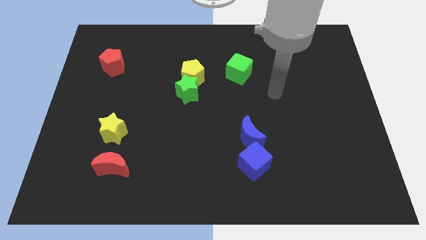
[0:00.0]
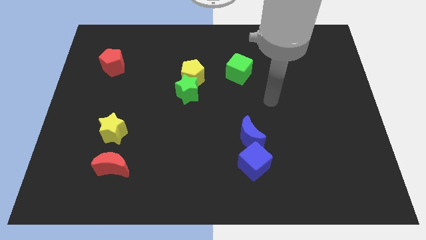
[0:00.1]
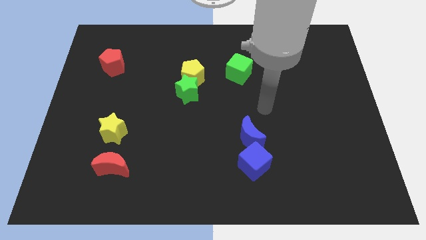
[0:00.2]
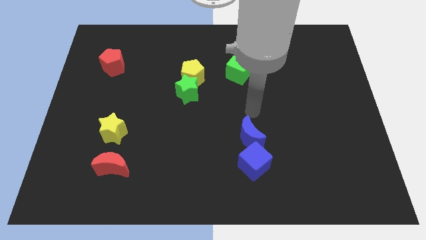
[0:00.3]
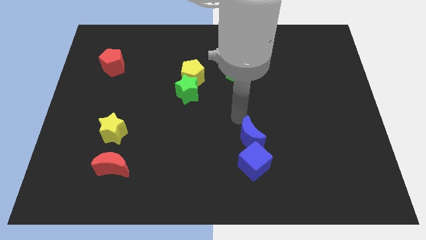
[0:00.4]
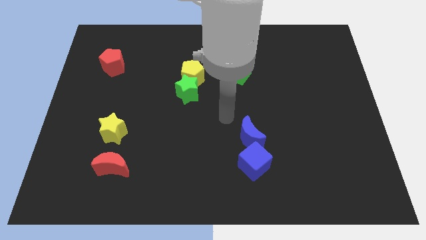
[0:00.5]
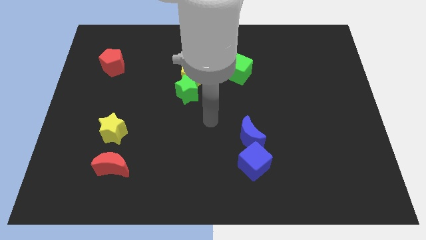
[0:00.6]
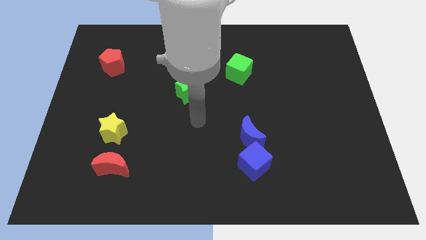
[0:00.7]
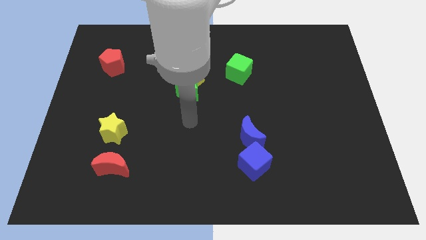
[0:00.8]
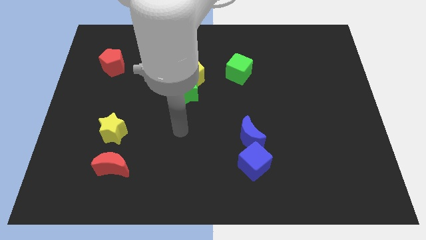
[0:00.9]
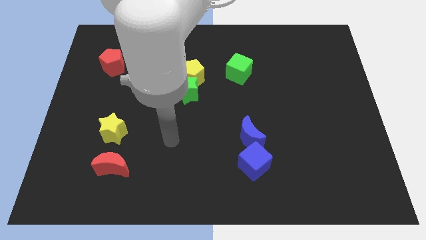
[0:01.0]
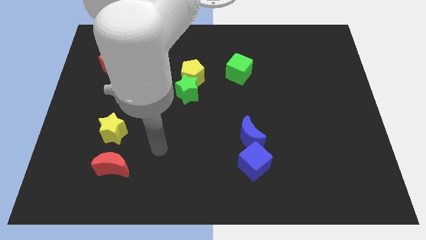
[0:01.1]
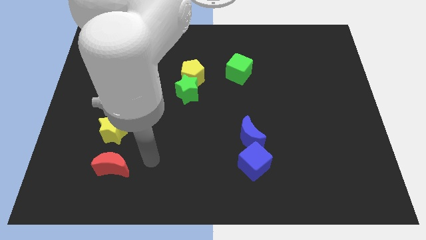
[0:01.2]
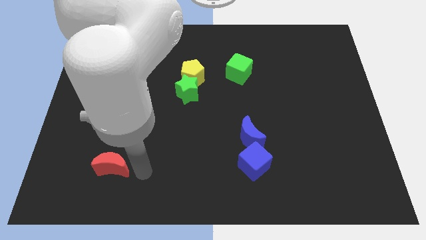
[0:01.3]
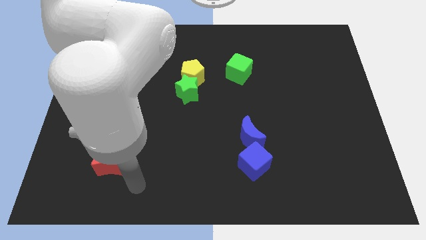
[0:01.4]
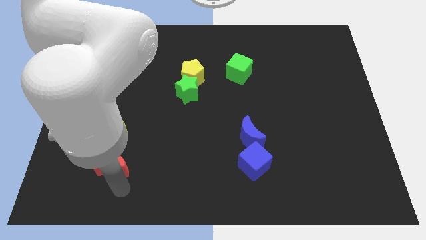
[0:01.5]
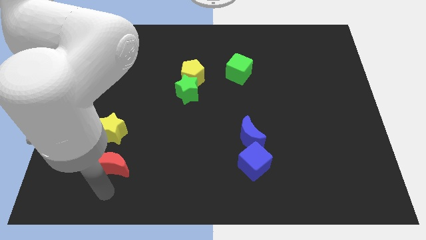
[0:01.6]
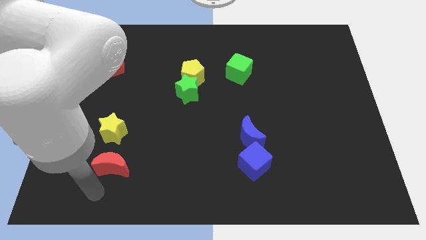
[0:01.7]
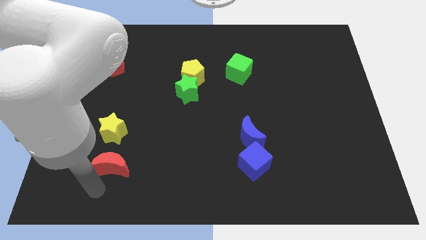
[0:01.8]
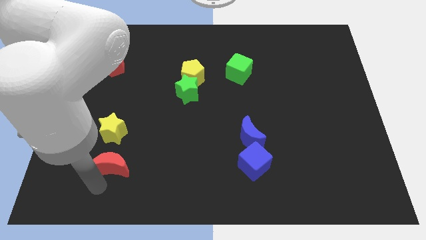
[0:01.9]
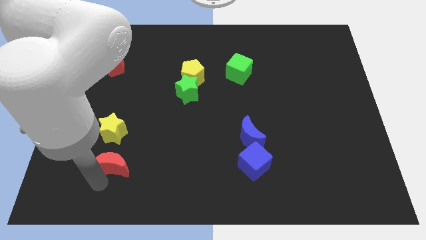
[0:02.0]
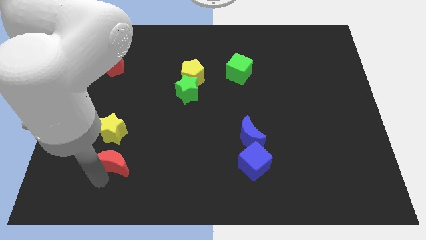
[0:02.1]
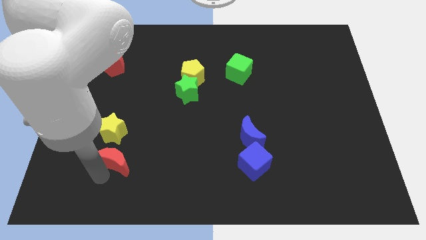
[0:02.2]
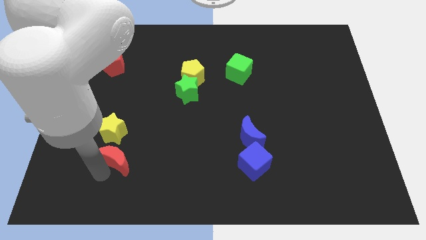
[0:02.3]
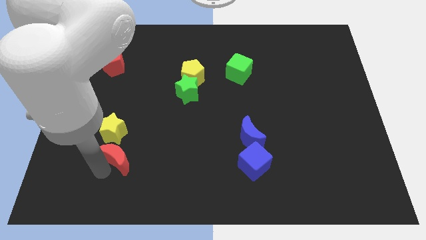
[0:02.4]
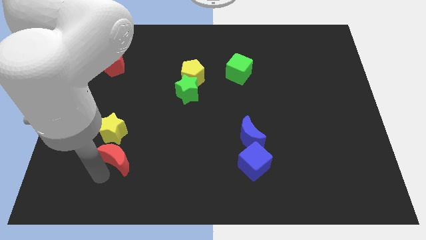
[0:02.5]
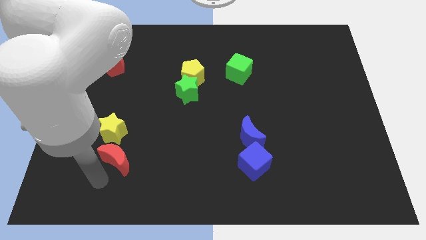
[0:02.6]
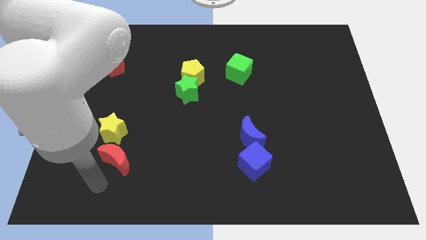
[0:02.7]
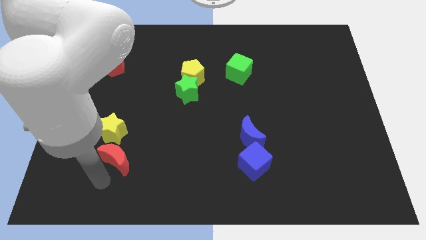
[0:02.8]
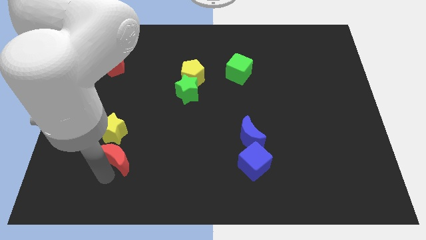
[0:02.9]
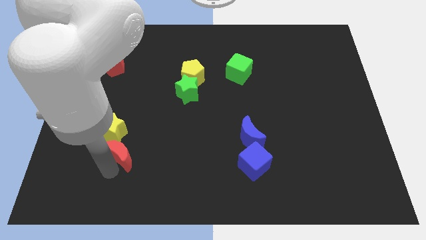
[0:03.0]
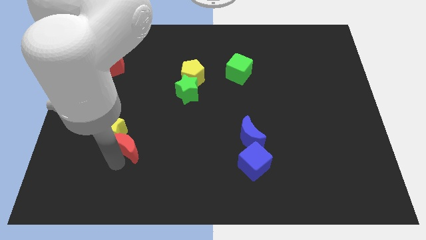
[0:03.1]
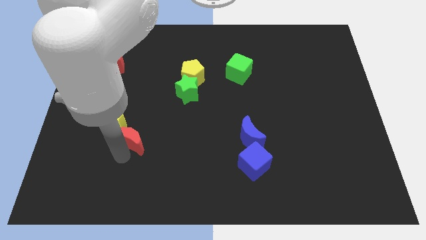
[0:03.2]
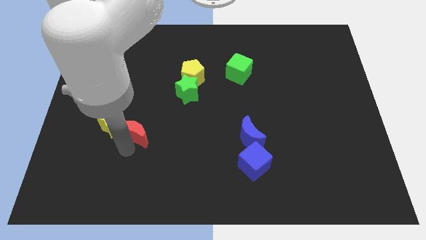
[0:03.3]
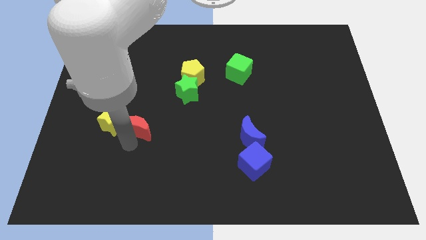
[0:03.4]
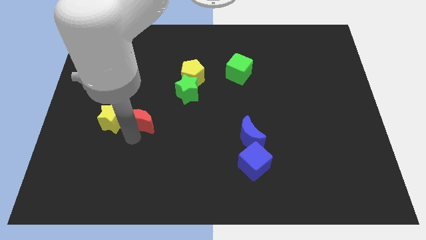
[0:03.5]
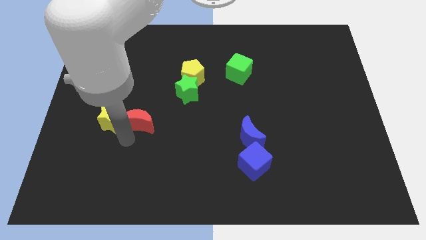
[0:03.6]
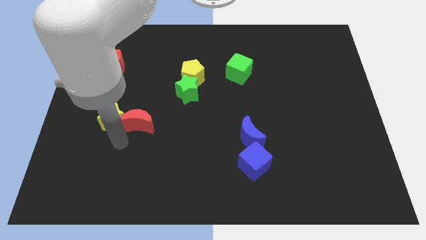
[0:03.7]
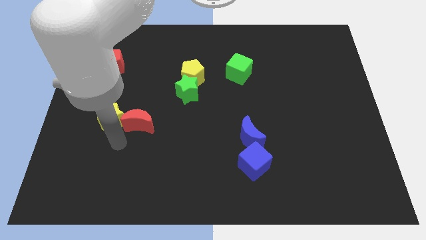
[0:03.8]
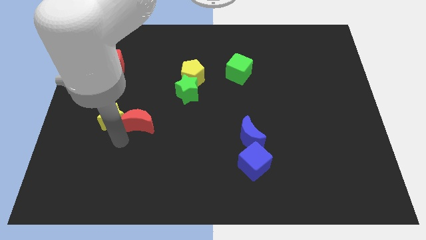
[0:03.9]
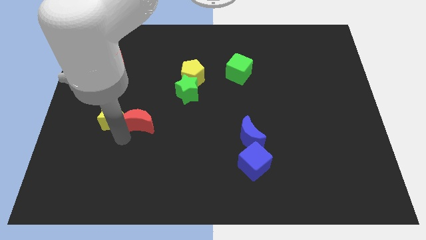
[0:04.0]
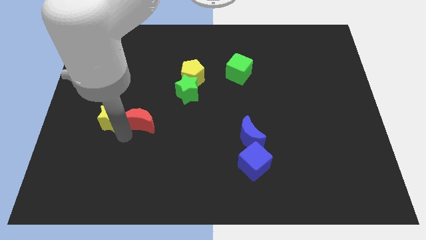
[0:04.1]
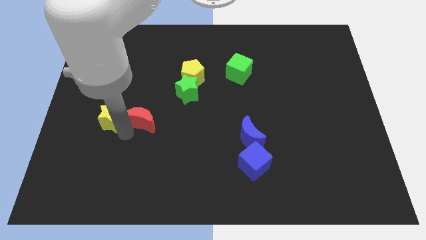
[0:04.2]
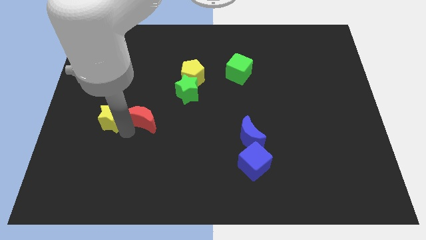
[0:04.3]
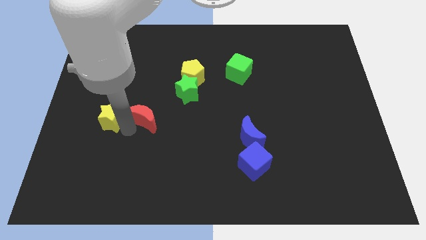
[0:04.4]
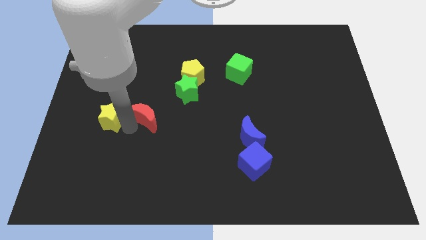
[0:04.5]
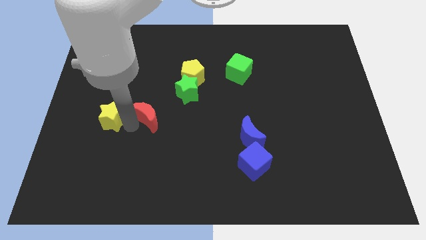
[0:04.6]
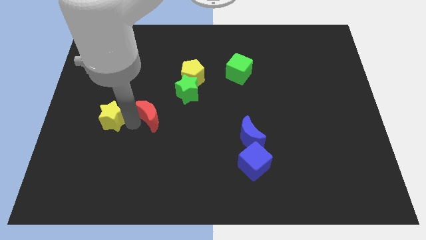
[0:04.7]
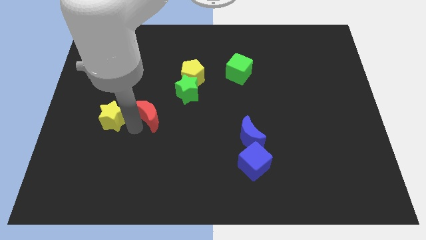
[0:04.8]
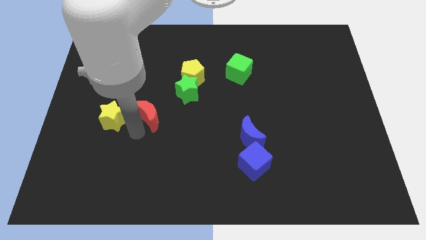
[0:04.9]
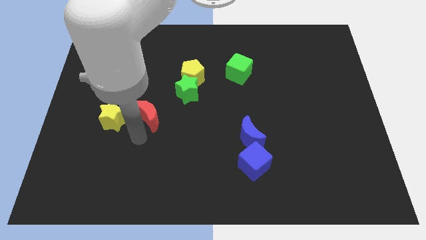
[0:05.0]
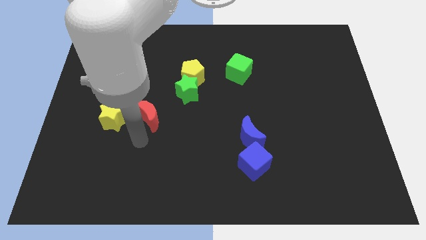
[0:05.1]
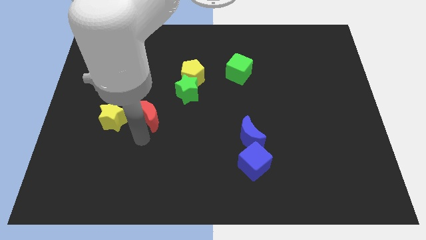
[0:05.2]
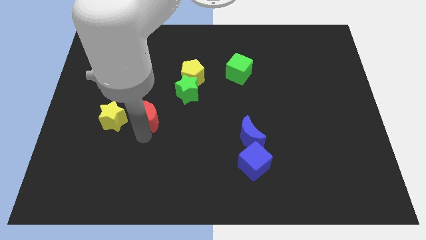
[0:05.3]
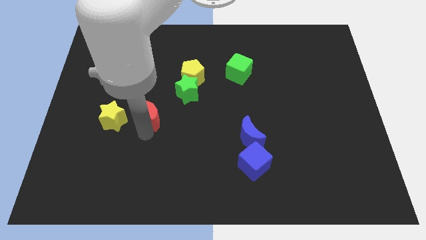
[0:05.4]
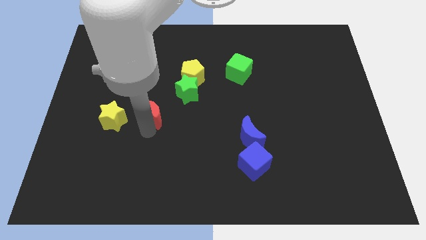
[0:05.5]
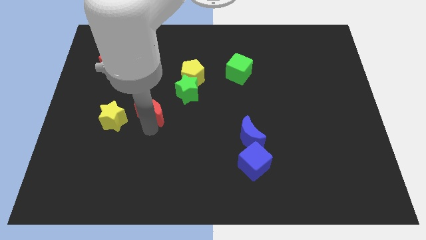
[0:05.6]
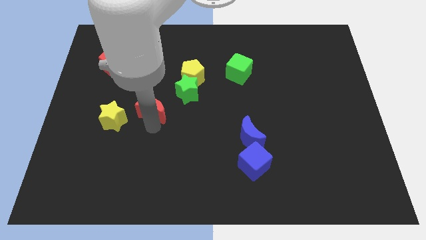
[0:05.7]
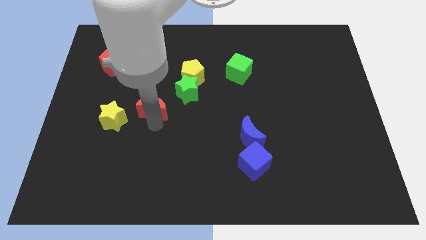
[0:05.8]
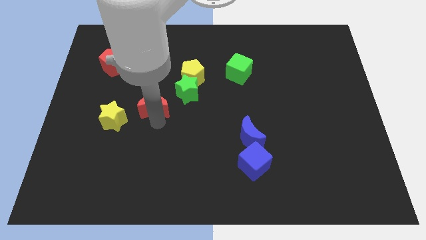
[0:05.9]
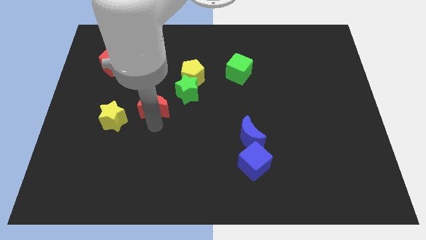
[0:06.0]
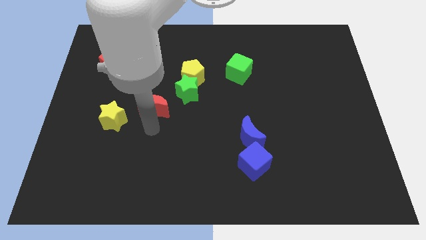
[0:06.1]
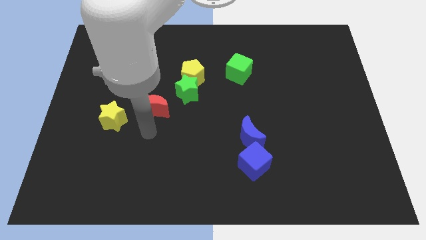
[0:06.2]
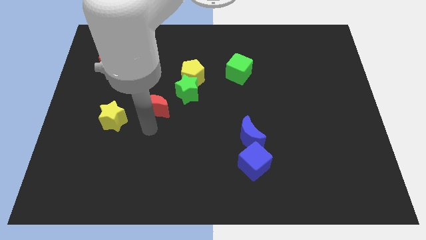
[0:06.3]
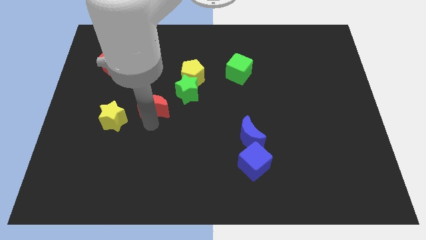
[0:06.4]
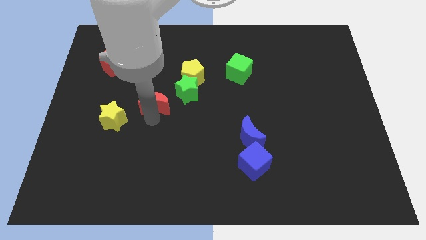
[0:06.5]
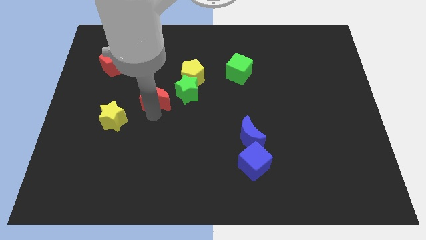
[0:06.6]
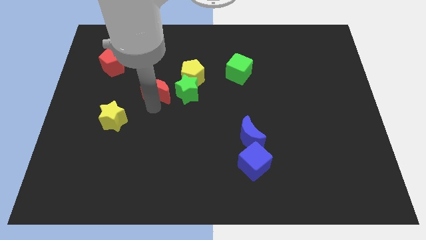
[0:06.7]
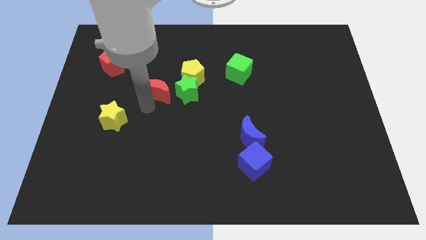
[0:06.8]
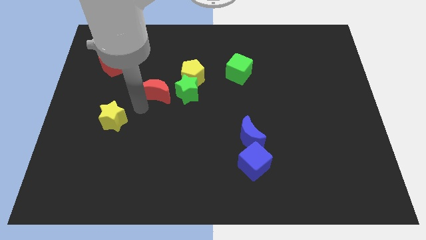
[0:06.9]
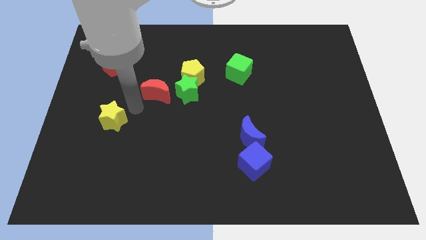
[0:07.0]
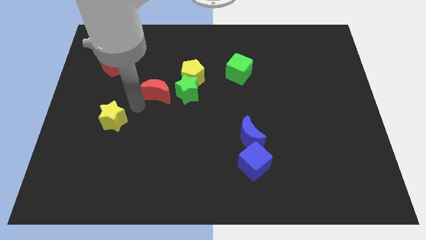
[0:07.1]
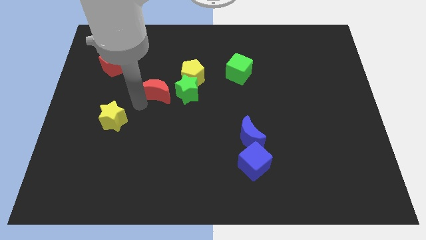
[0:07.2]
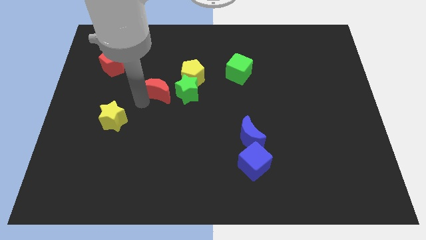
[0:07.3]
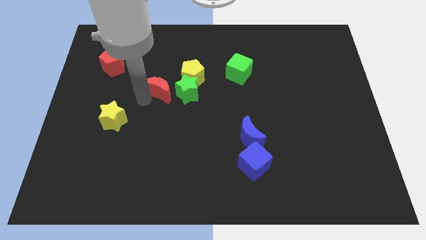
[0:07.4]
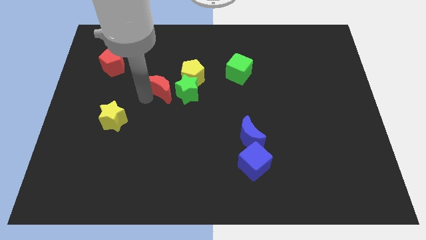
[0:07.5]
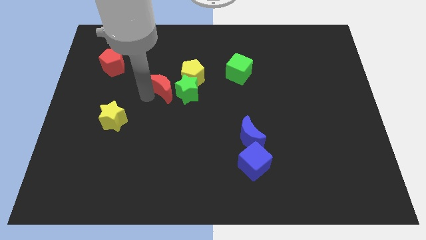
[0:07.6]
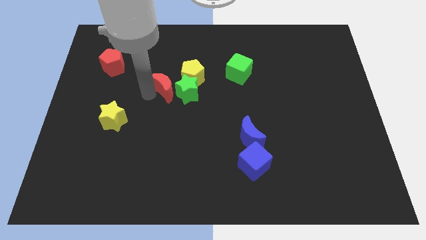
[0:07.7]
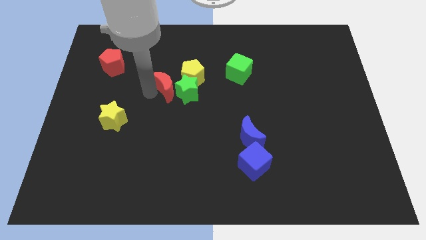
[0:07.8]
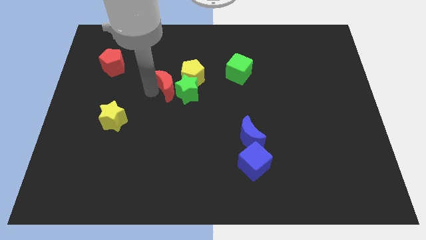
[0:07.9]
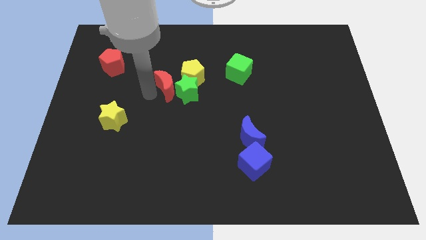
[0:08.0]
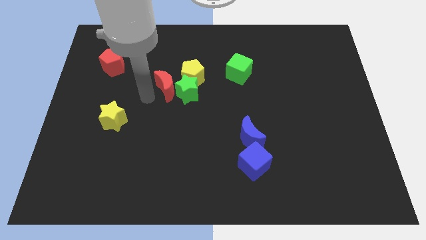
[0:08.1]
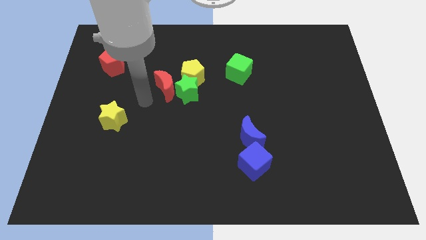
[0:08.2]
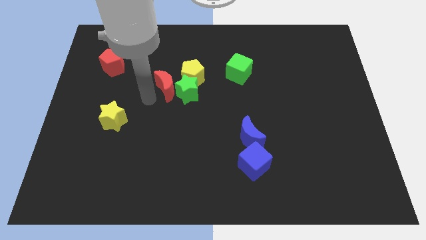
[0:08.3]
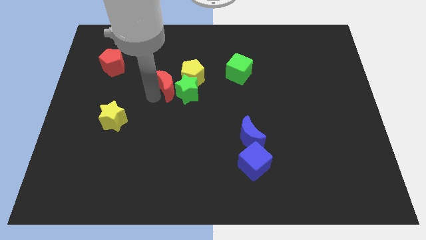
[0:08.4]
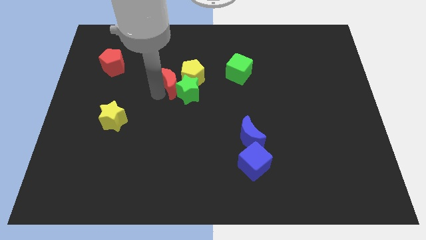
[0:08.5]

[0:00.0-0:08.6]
push the red moon next to the yellow pentagon

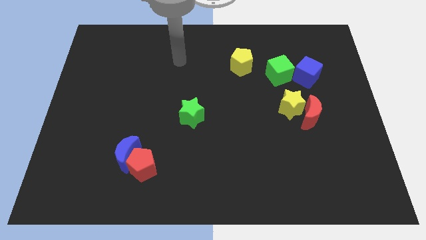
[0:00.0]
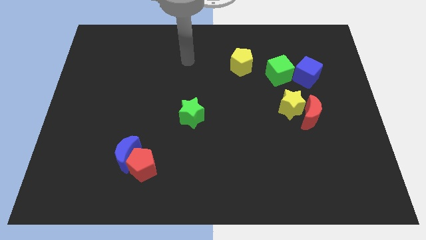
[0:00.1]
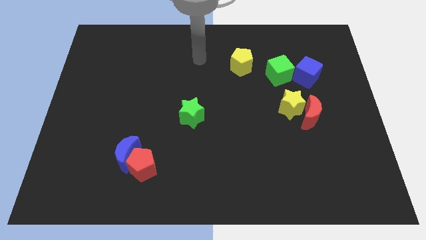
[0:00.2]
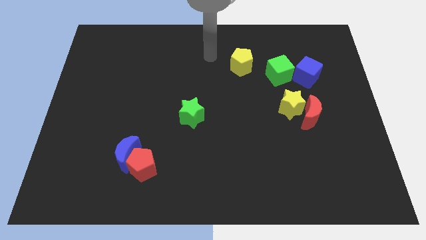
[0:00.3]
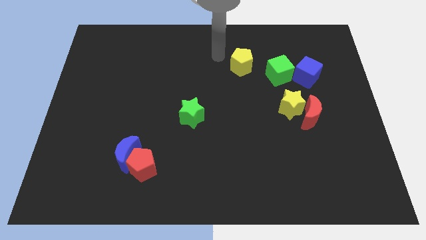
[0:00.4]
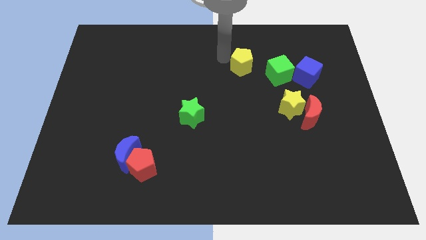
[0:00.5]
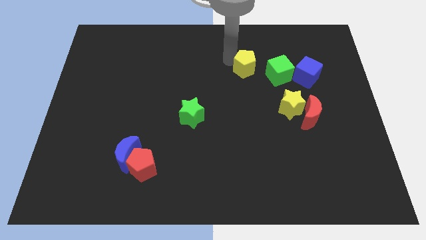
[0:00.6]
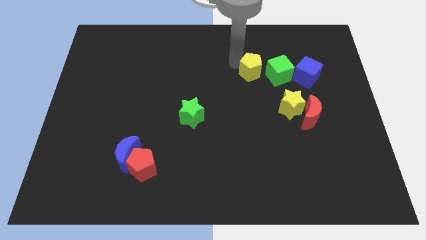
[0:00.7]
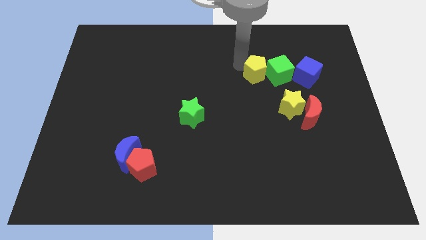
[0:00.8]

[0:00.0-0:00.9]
push the yellow pentagon close to the green cube
